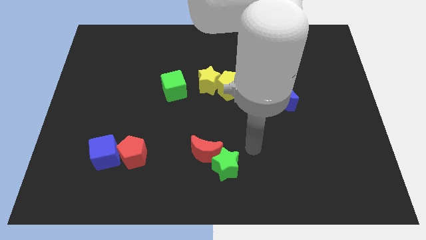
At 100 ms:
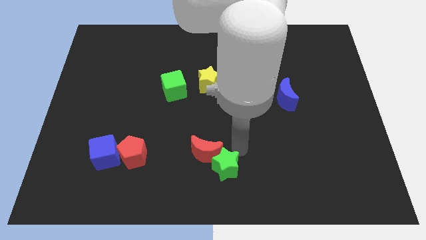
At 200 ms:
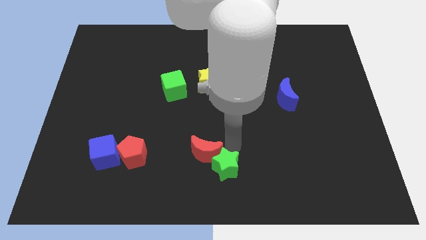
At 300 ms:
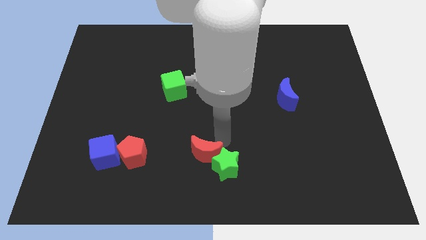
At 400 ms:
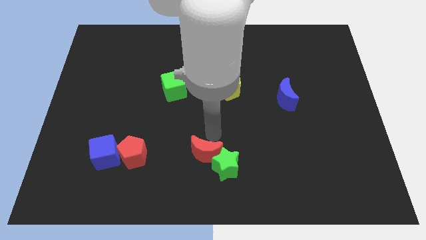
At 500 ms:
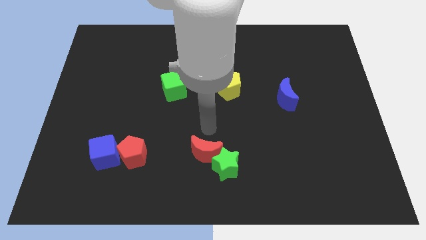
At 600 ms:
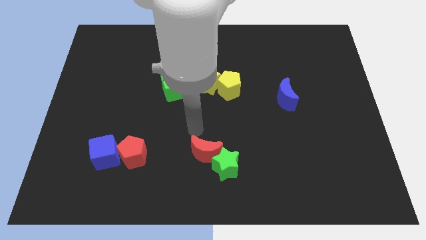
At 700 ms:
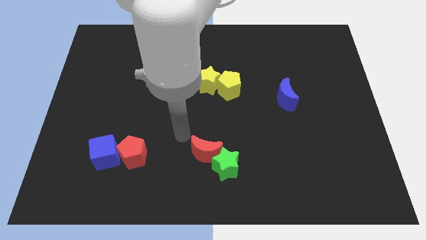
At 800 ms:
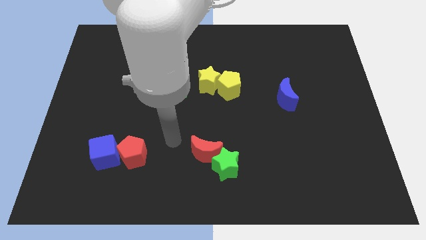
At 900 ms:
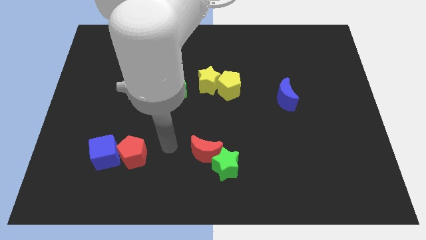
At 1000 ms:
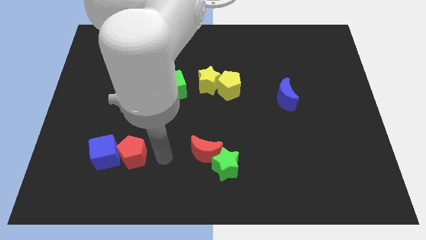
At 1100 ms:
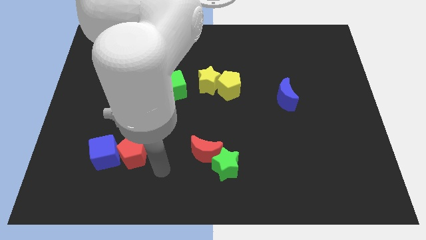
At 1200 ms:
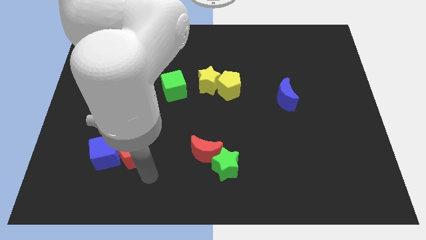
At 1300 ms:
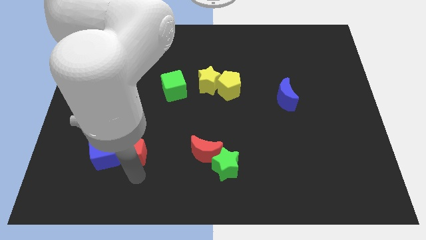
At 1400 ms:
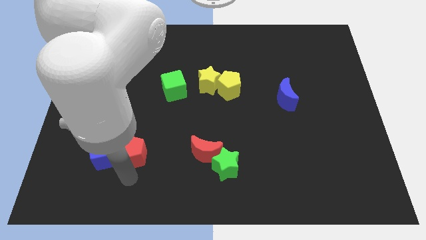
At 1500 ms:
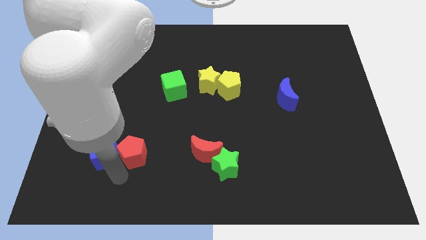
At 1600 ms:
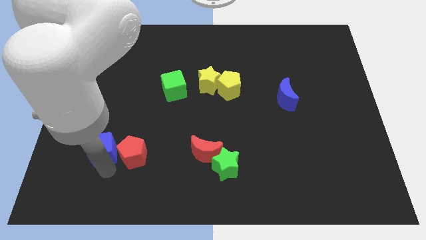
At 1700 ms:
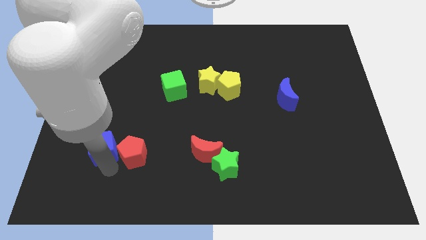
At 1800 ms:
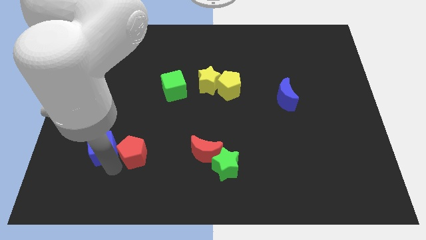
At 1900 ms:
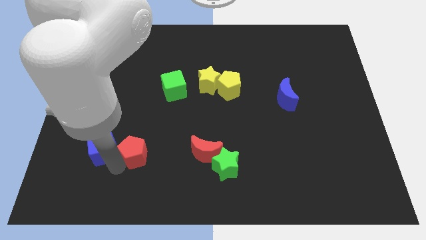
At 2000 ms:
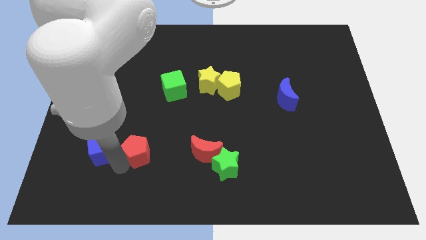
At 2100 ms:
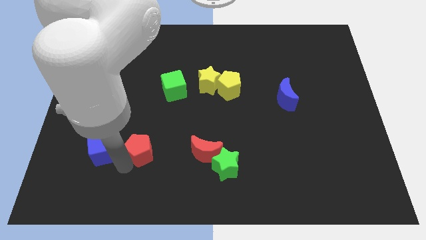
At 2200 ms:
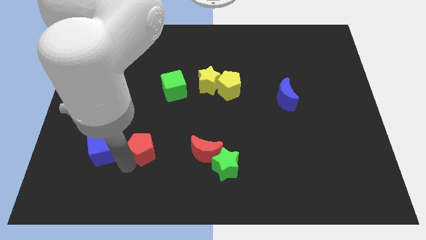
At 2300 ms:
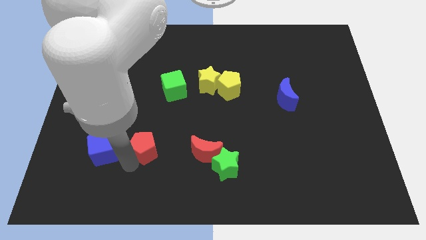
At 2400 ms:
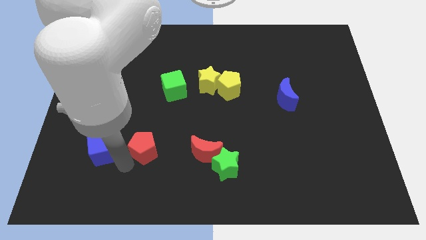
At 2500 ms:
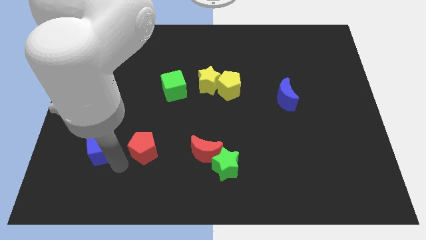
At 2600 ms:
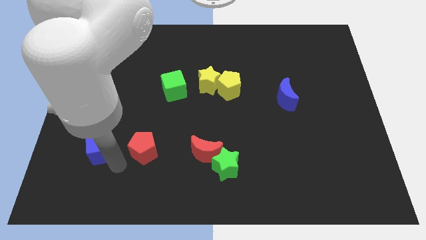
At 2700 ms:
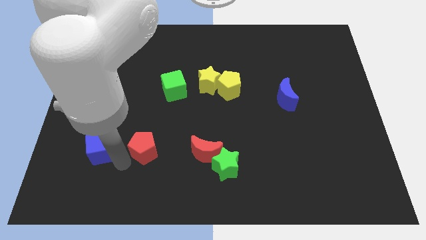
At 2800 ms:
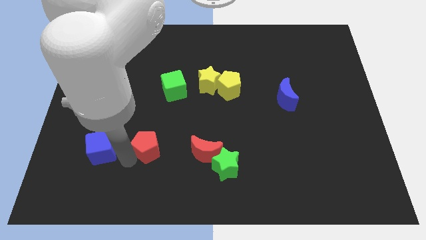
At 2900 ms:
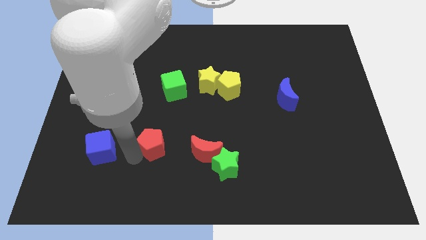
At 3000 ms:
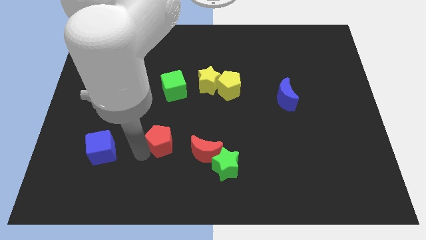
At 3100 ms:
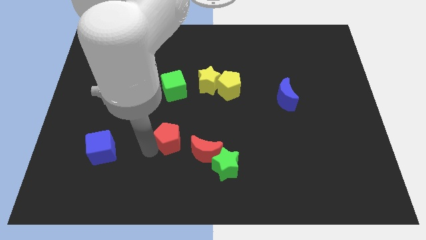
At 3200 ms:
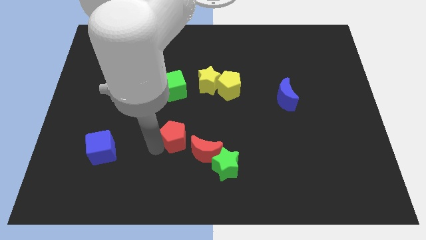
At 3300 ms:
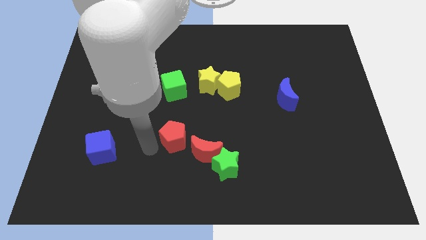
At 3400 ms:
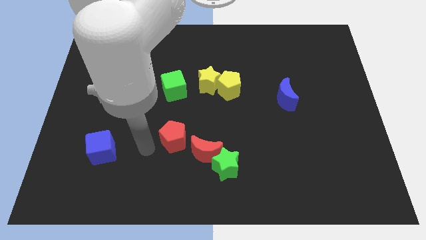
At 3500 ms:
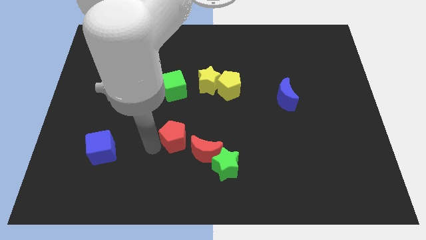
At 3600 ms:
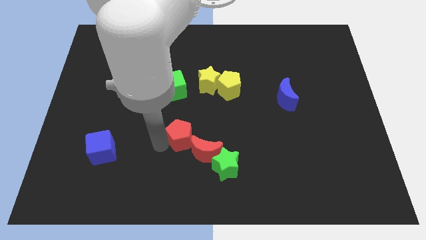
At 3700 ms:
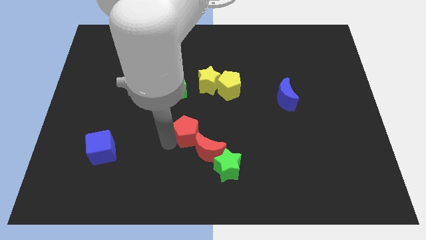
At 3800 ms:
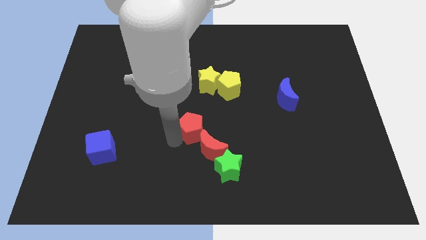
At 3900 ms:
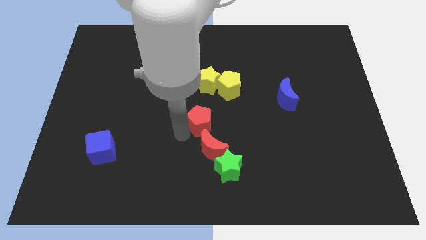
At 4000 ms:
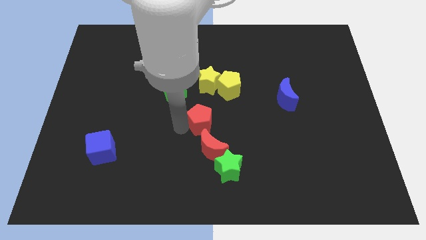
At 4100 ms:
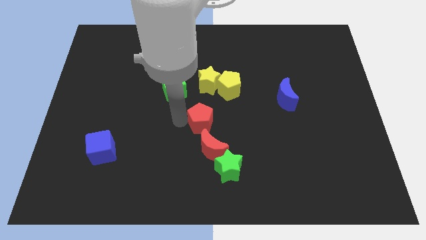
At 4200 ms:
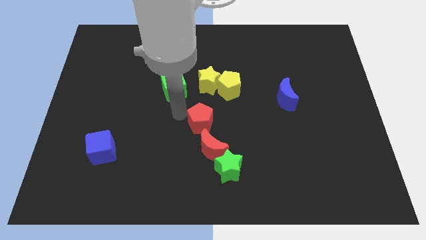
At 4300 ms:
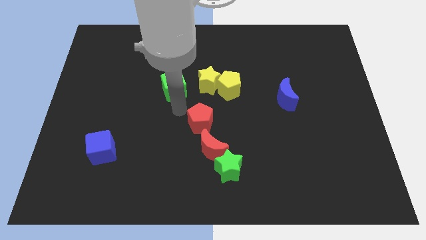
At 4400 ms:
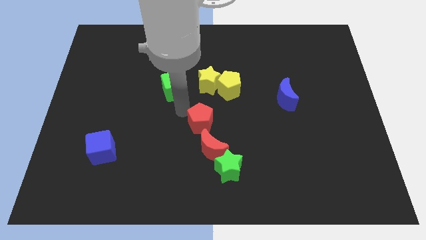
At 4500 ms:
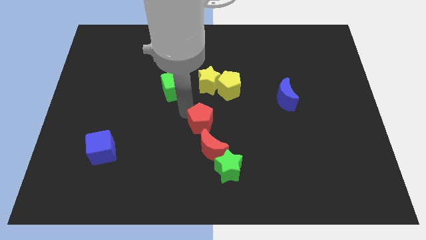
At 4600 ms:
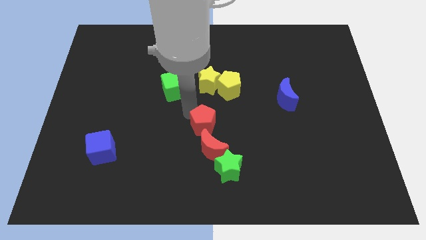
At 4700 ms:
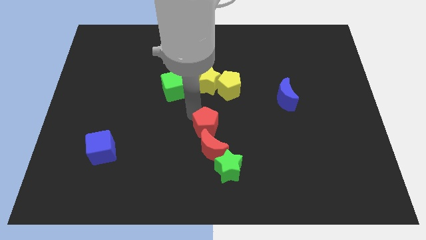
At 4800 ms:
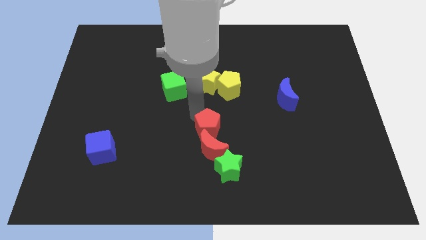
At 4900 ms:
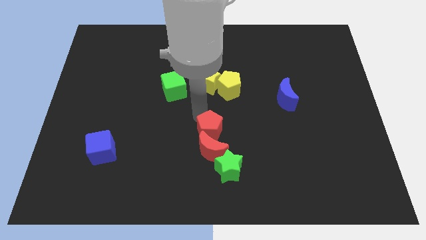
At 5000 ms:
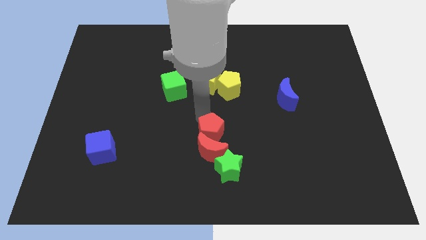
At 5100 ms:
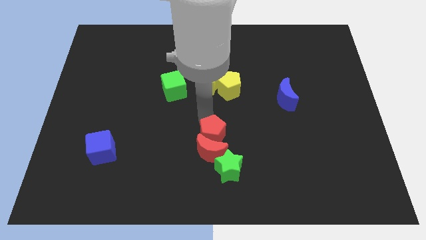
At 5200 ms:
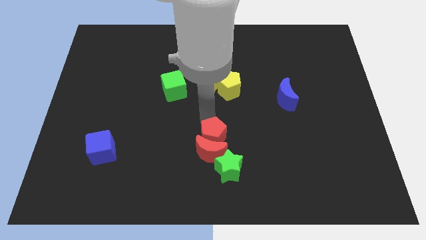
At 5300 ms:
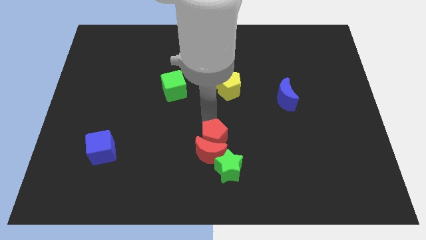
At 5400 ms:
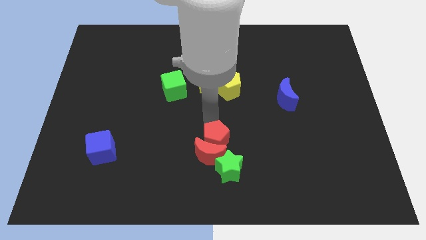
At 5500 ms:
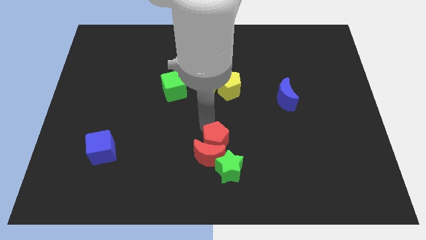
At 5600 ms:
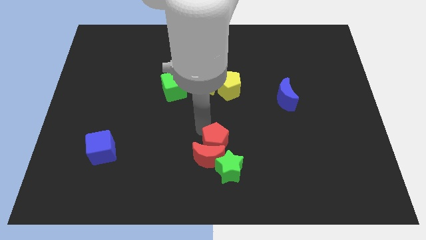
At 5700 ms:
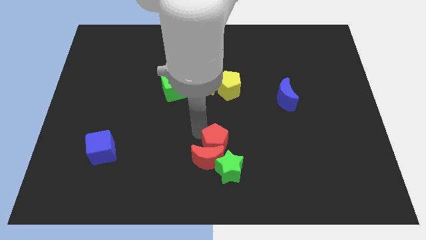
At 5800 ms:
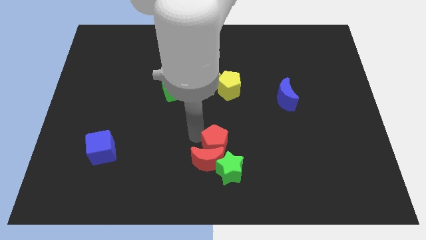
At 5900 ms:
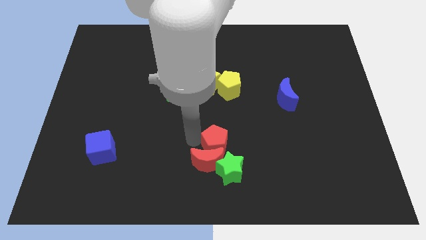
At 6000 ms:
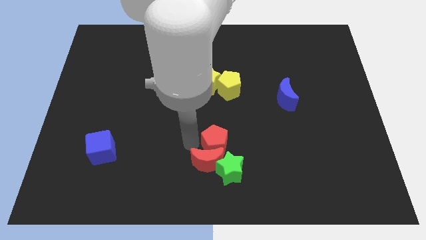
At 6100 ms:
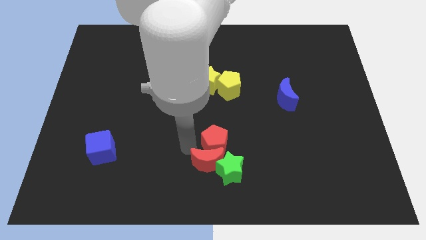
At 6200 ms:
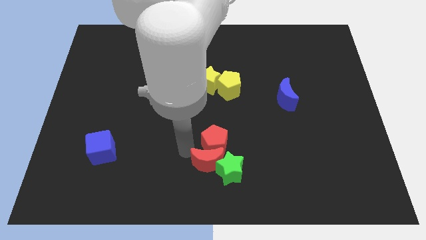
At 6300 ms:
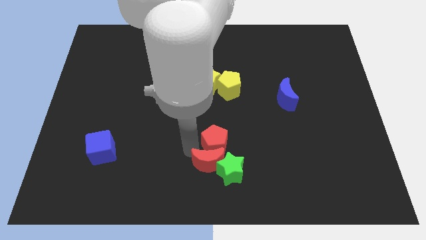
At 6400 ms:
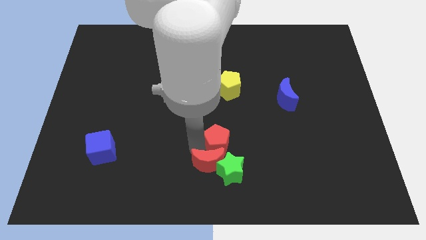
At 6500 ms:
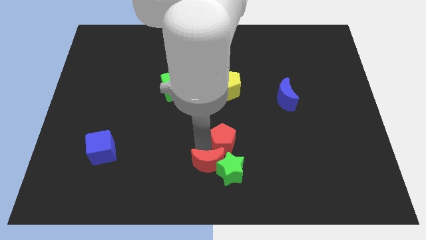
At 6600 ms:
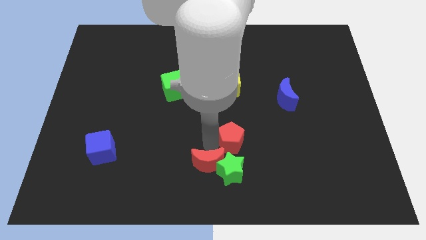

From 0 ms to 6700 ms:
move the red pentagon right

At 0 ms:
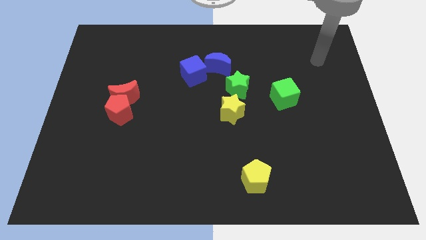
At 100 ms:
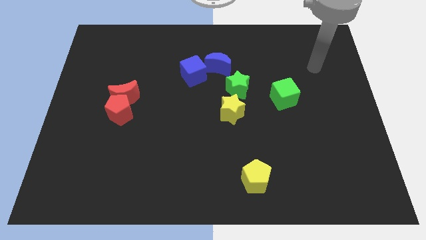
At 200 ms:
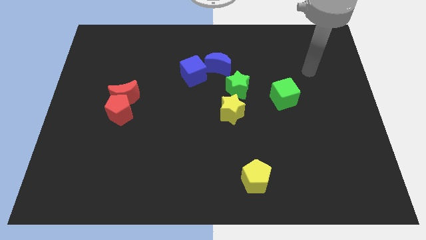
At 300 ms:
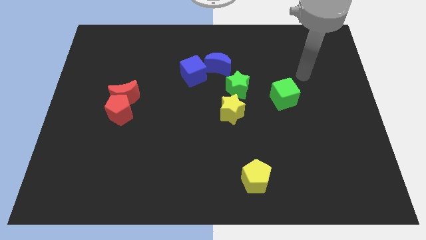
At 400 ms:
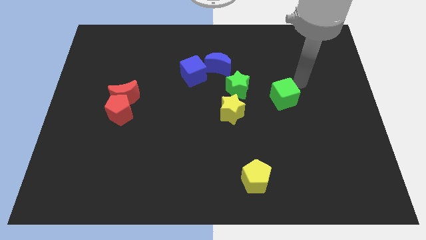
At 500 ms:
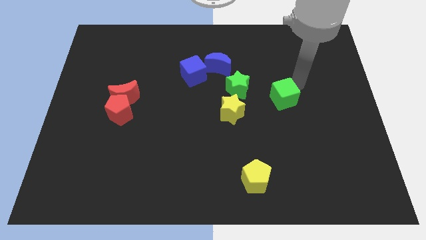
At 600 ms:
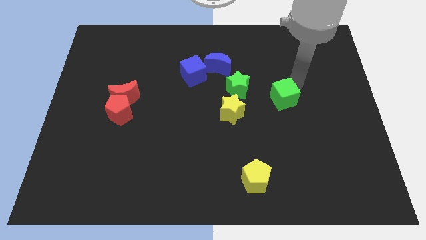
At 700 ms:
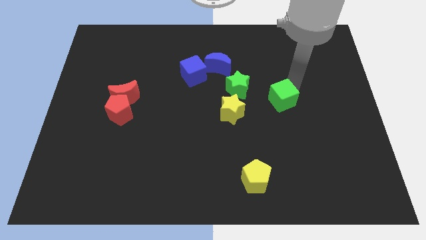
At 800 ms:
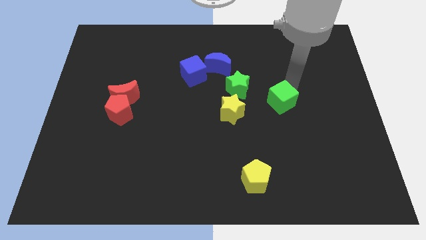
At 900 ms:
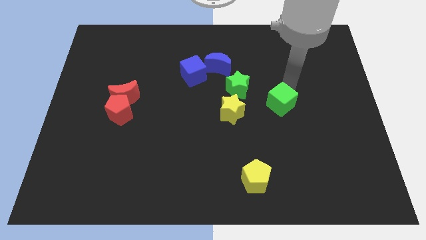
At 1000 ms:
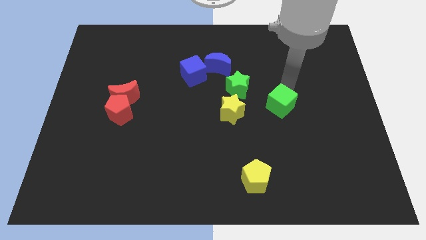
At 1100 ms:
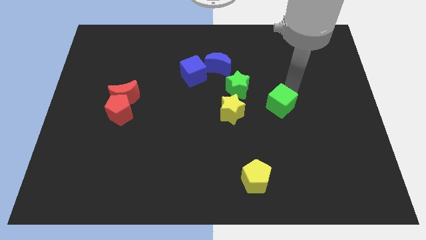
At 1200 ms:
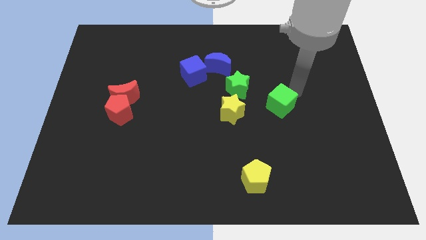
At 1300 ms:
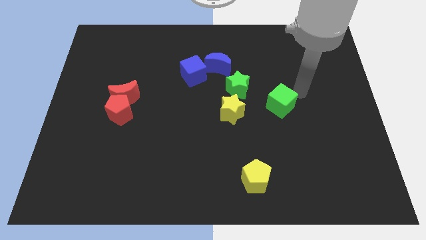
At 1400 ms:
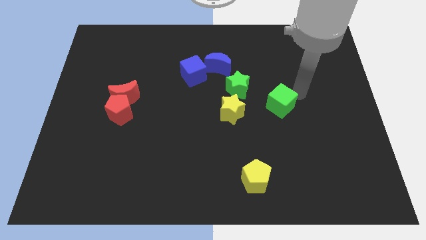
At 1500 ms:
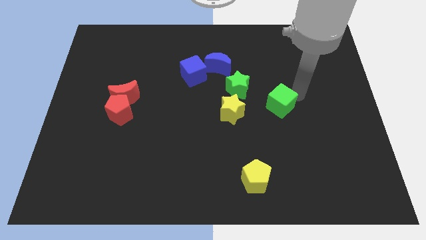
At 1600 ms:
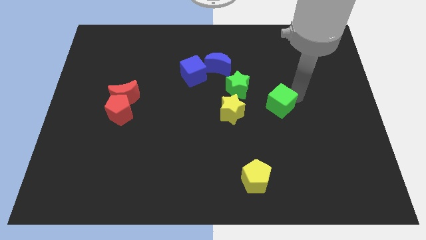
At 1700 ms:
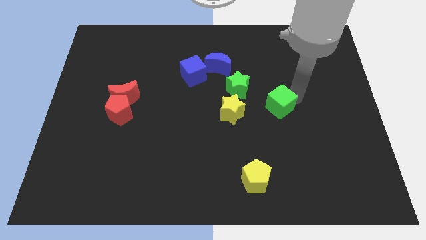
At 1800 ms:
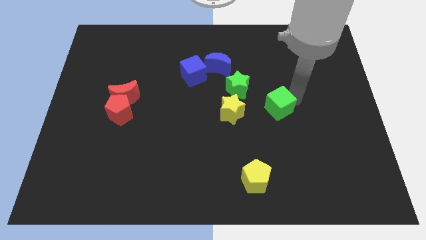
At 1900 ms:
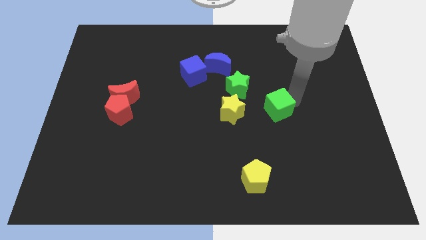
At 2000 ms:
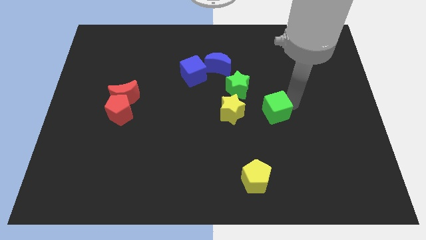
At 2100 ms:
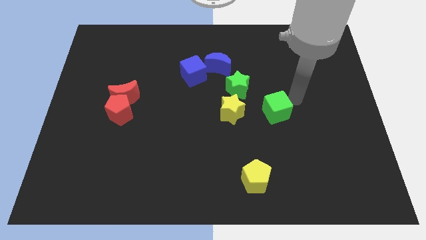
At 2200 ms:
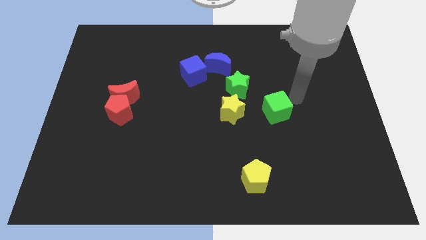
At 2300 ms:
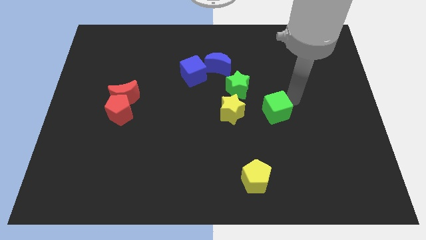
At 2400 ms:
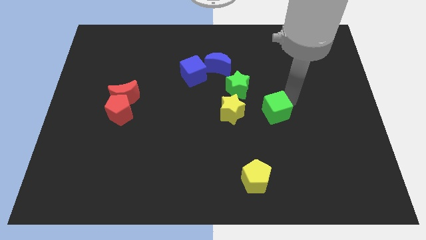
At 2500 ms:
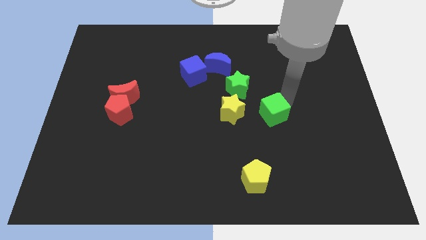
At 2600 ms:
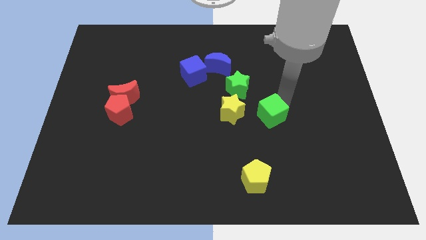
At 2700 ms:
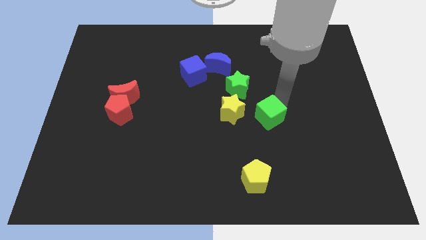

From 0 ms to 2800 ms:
push the green cube somewhat downwards and to the left diagonally
